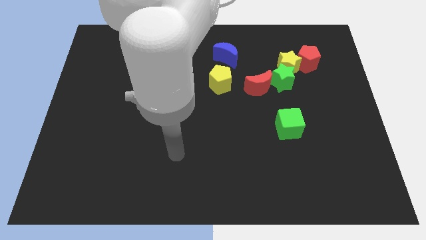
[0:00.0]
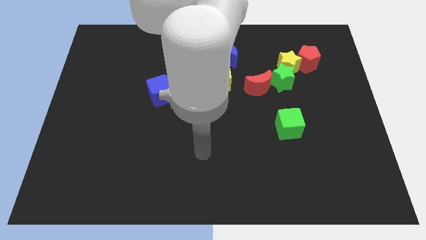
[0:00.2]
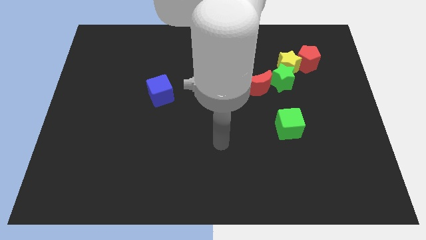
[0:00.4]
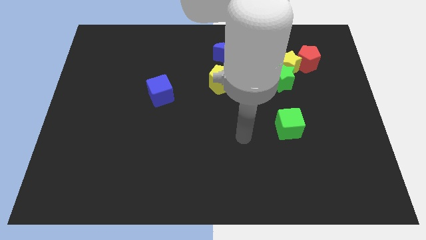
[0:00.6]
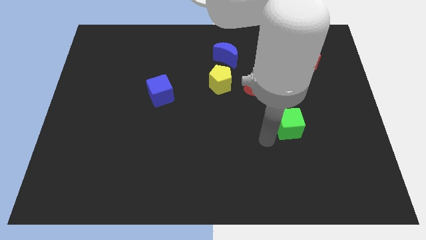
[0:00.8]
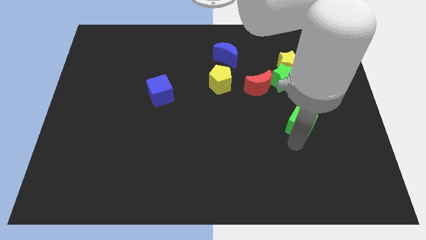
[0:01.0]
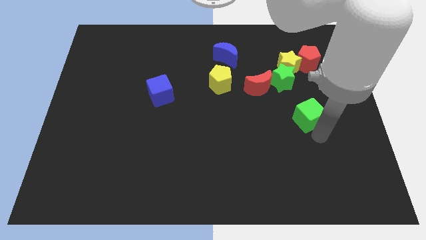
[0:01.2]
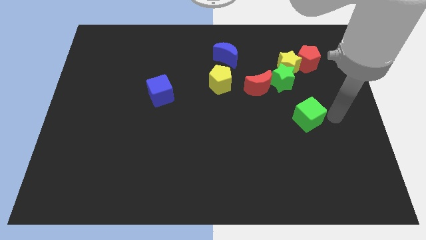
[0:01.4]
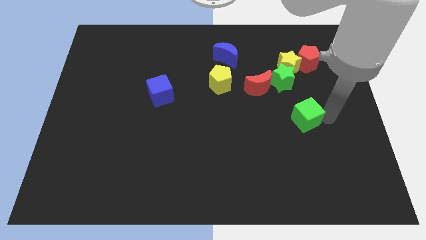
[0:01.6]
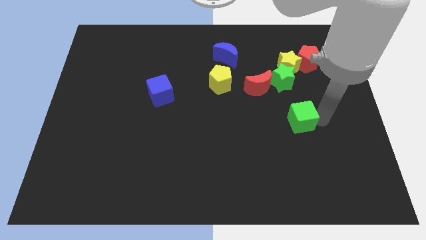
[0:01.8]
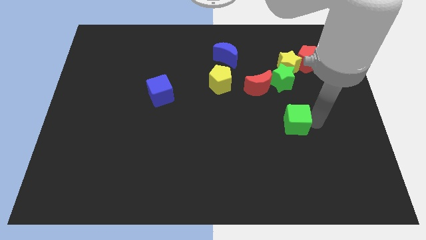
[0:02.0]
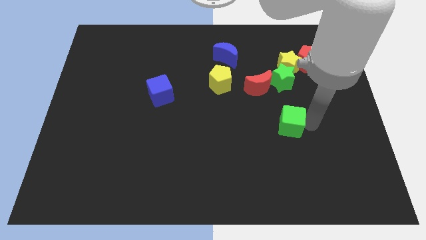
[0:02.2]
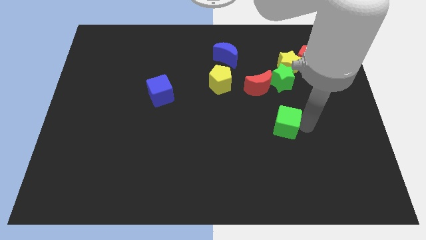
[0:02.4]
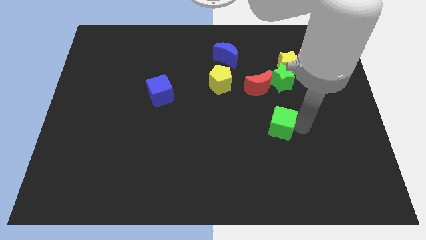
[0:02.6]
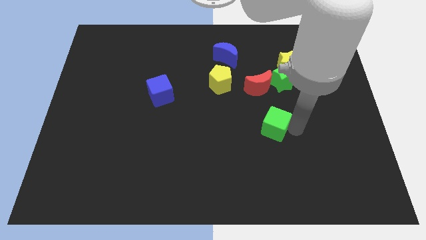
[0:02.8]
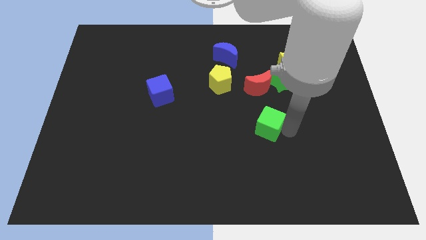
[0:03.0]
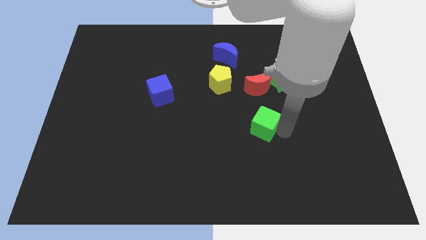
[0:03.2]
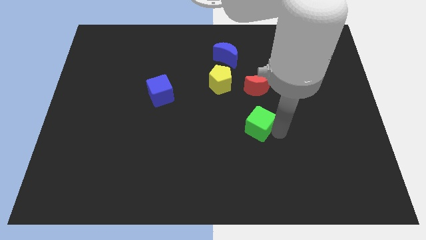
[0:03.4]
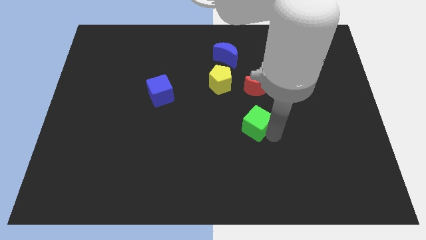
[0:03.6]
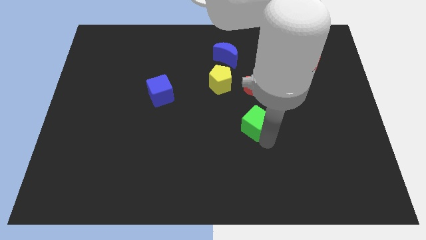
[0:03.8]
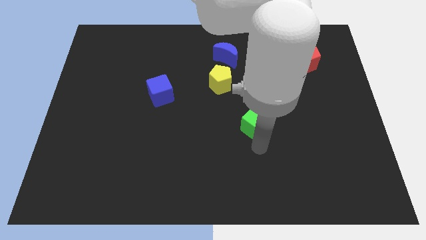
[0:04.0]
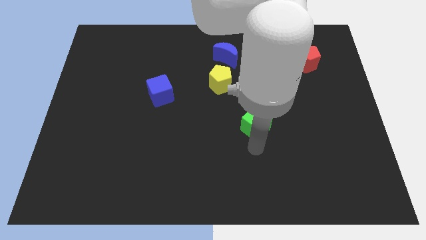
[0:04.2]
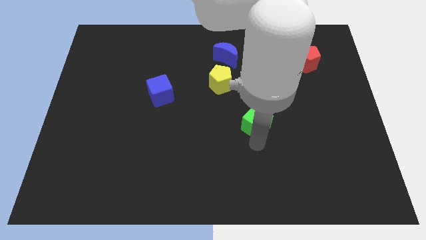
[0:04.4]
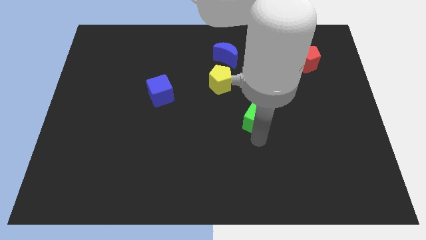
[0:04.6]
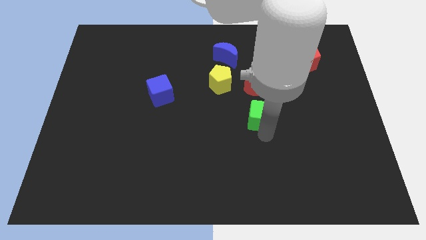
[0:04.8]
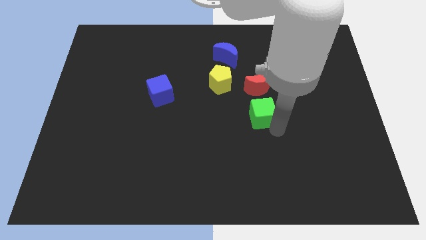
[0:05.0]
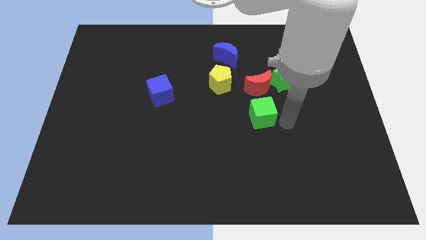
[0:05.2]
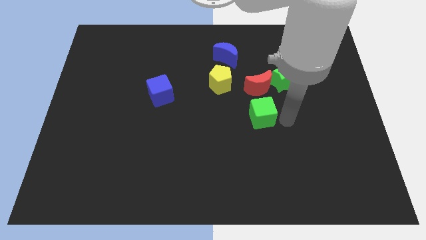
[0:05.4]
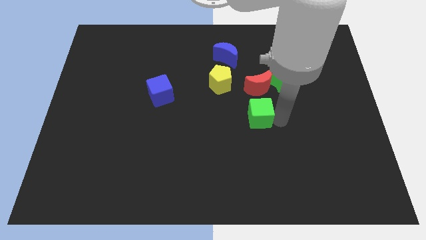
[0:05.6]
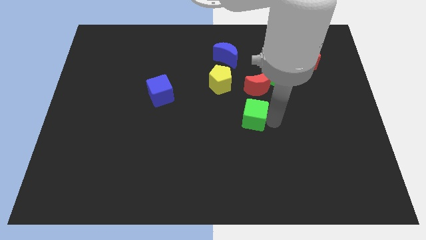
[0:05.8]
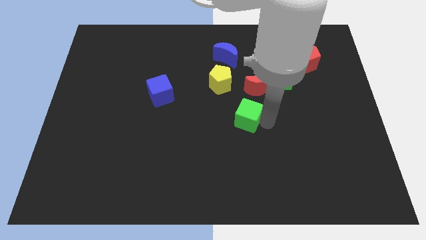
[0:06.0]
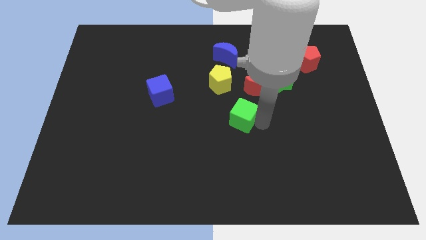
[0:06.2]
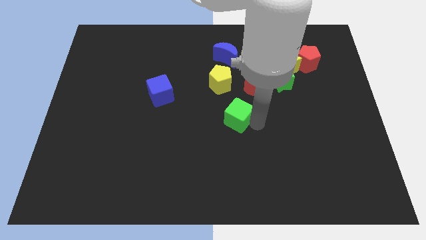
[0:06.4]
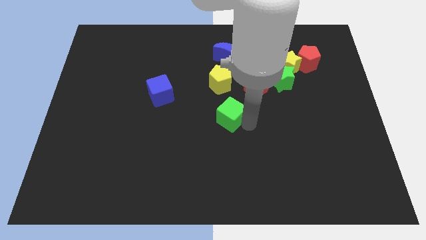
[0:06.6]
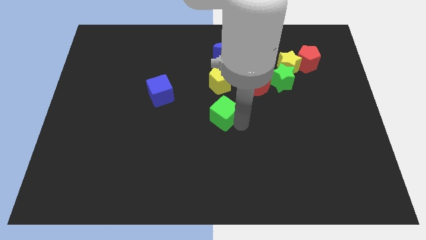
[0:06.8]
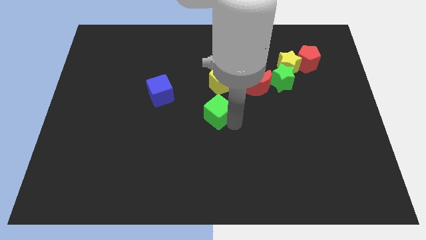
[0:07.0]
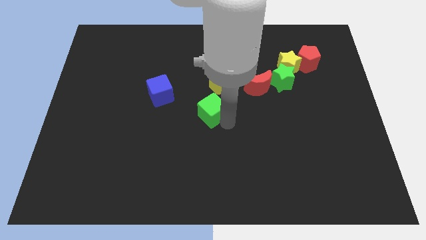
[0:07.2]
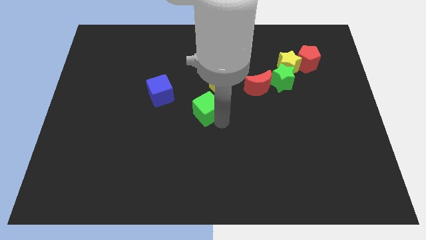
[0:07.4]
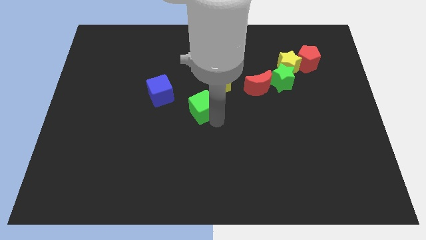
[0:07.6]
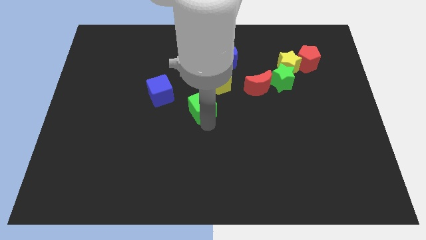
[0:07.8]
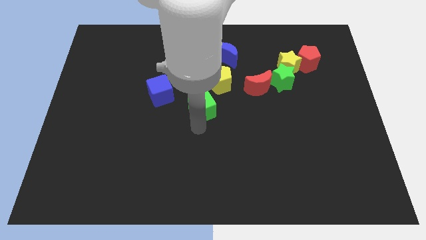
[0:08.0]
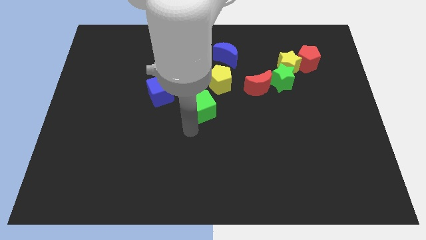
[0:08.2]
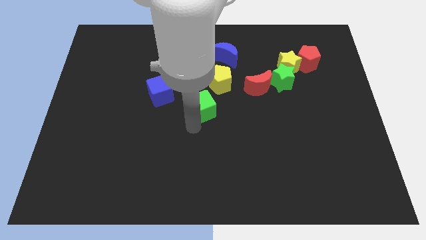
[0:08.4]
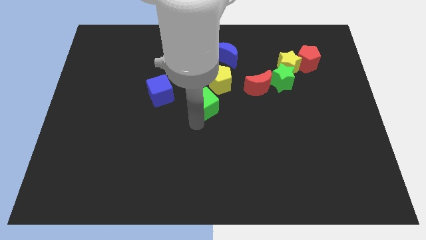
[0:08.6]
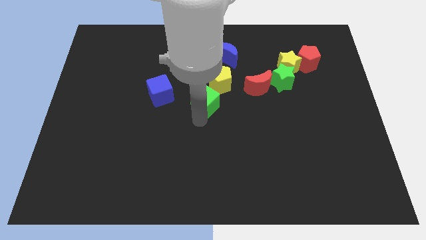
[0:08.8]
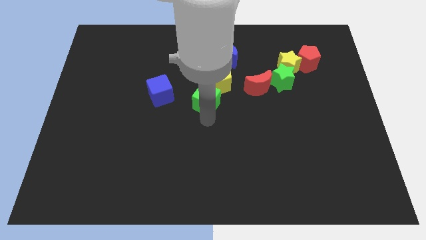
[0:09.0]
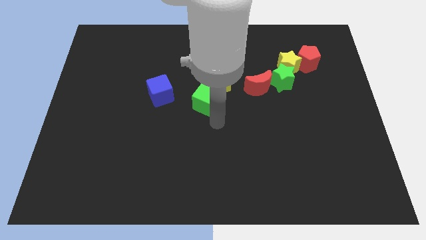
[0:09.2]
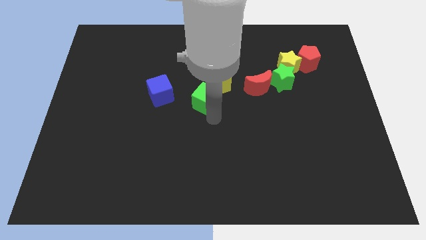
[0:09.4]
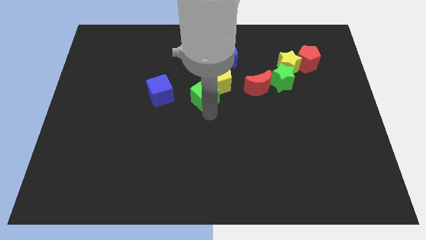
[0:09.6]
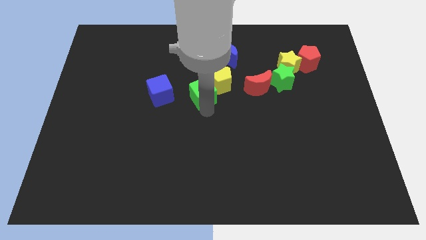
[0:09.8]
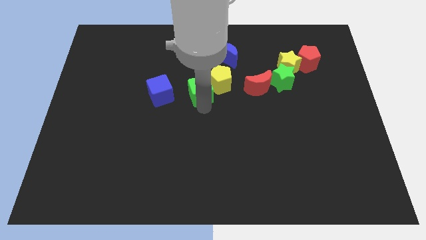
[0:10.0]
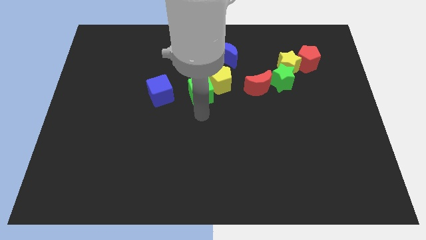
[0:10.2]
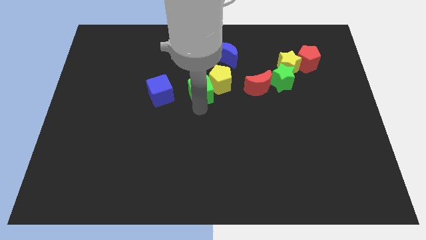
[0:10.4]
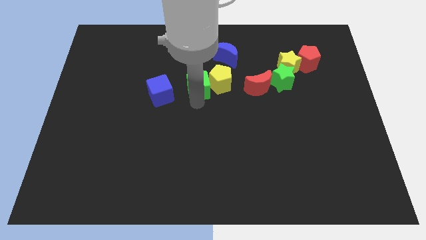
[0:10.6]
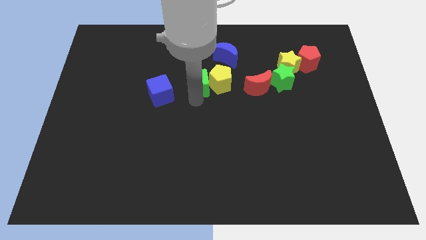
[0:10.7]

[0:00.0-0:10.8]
put the green cube to the top left of the yellow pentagon

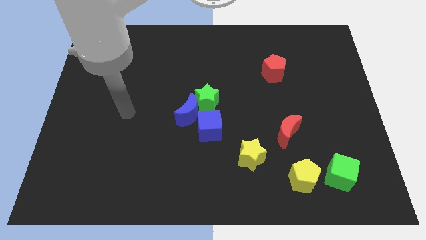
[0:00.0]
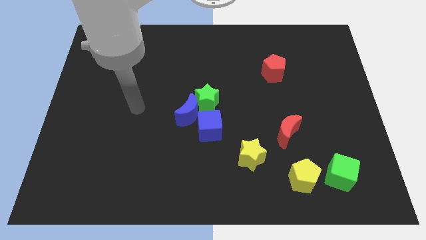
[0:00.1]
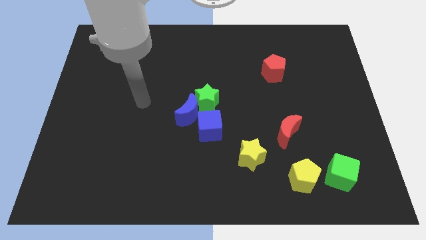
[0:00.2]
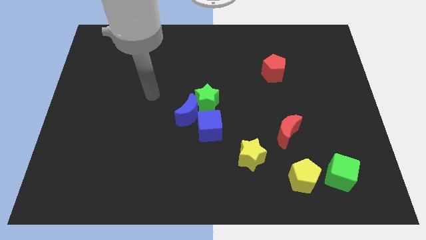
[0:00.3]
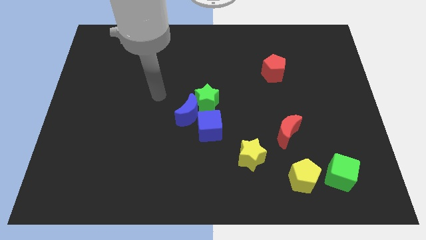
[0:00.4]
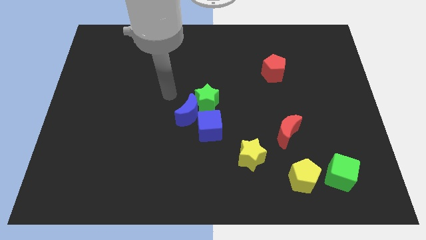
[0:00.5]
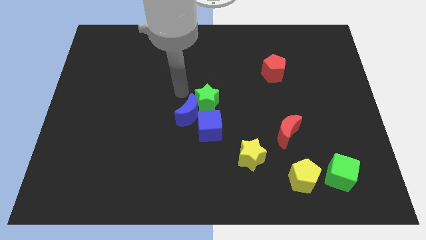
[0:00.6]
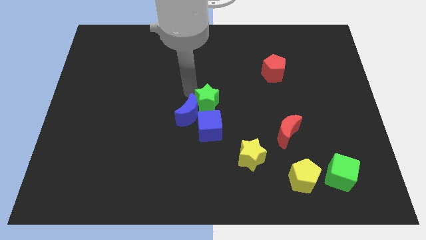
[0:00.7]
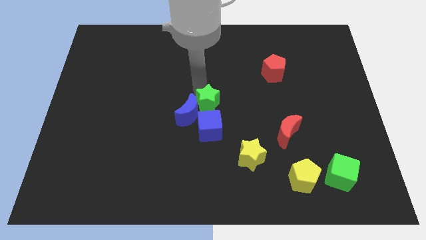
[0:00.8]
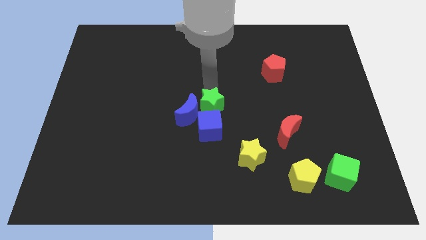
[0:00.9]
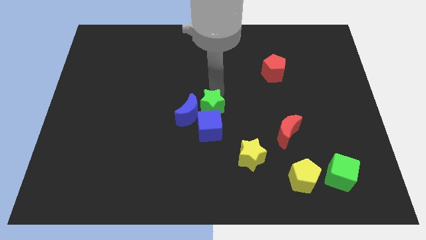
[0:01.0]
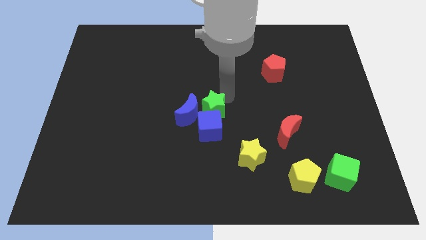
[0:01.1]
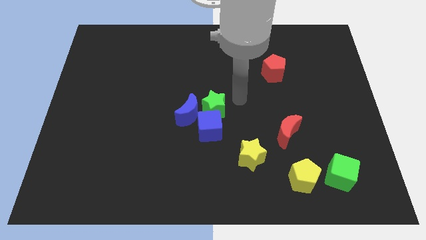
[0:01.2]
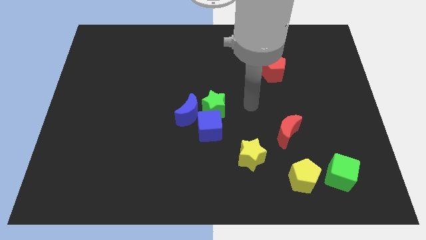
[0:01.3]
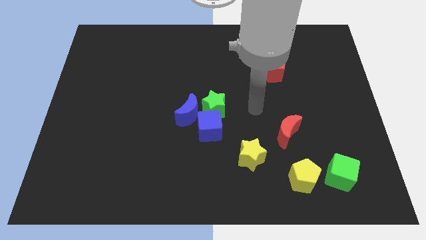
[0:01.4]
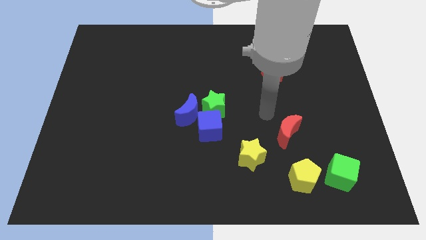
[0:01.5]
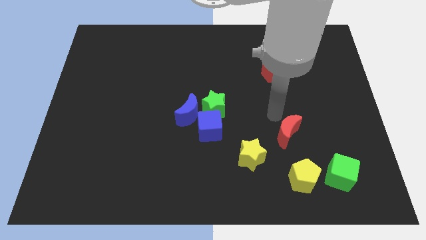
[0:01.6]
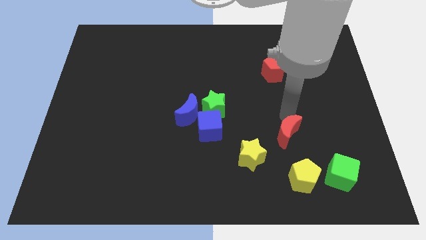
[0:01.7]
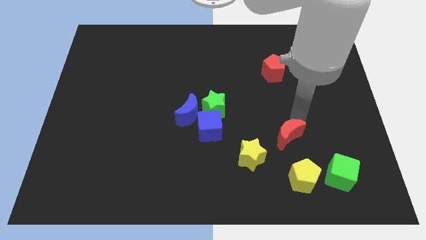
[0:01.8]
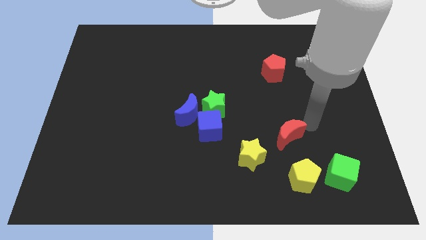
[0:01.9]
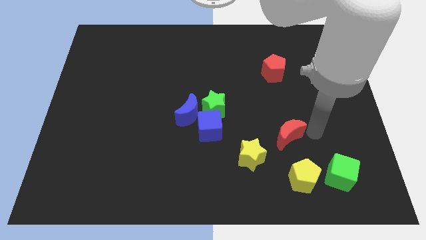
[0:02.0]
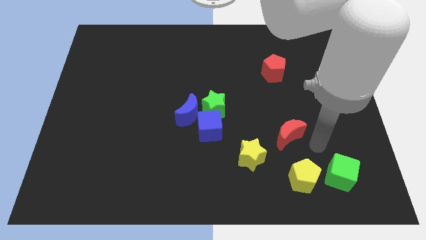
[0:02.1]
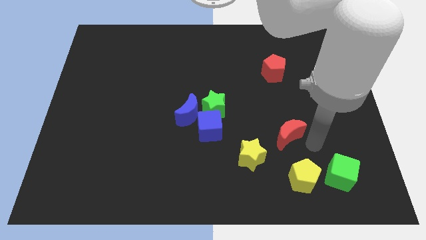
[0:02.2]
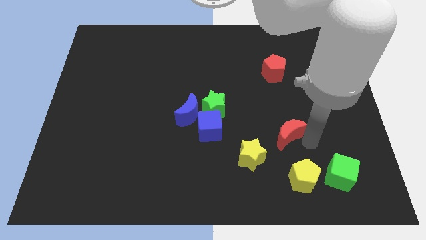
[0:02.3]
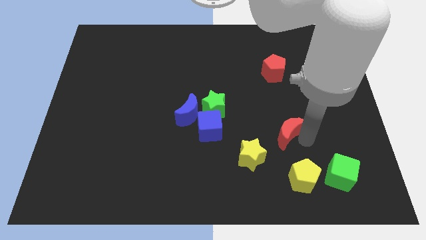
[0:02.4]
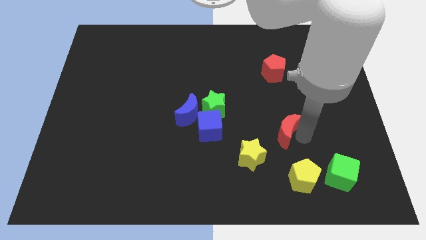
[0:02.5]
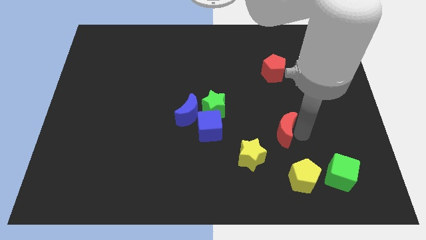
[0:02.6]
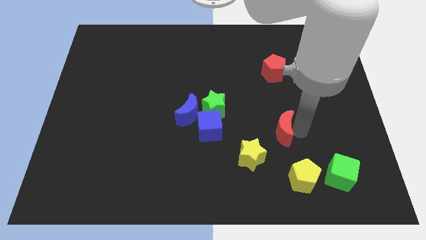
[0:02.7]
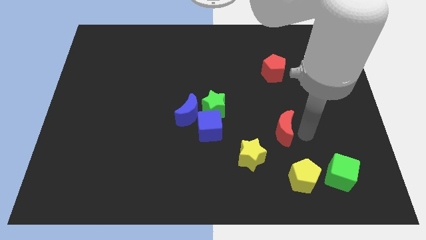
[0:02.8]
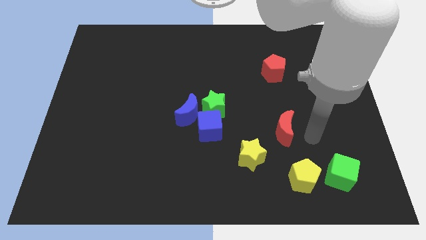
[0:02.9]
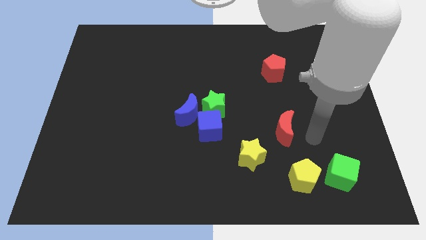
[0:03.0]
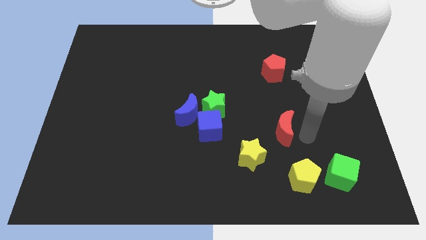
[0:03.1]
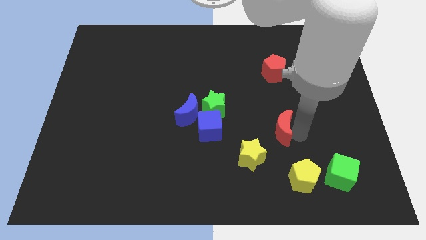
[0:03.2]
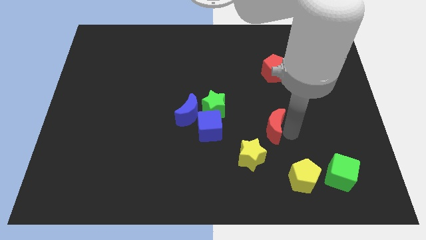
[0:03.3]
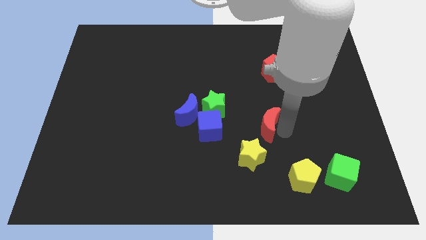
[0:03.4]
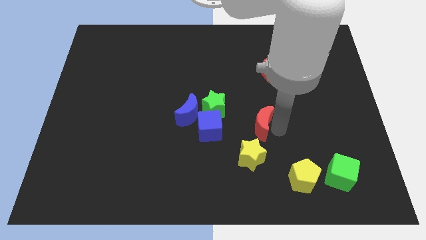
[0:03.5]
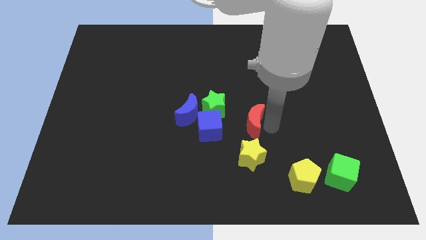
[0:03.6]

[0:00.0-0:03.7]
push the red moon to the bottom right of the green star
